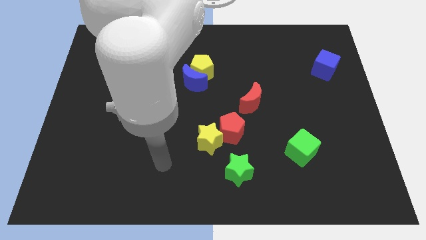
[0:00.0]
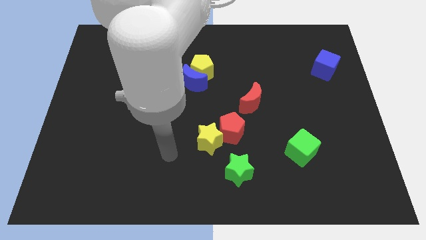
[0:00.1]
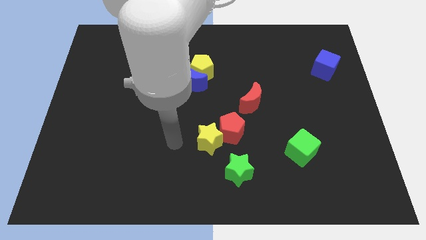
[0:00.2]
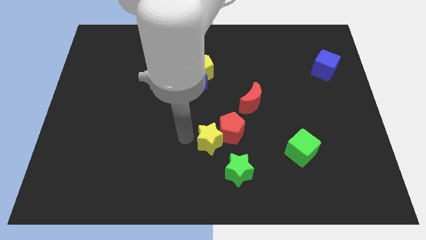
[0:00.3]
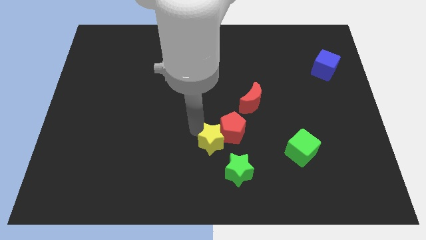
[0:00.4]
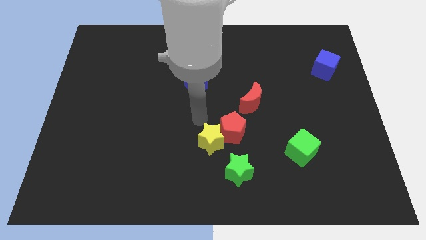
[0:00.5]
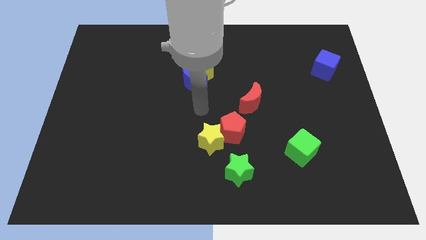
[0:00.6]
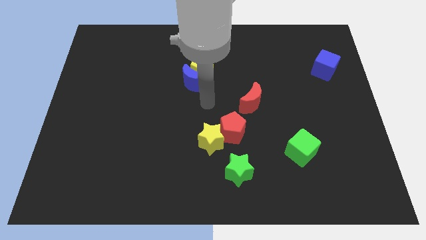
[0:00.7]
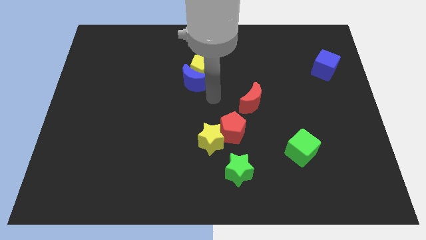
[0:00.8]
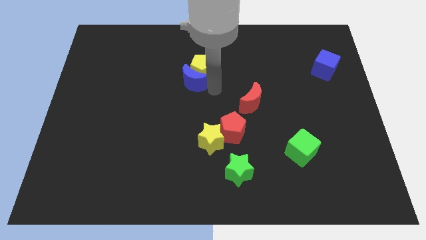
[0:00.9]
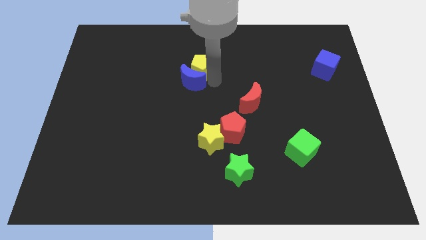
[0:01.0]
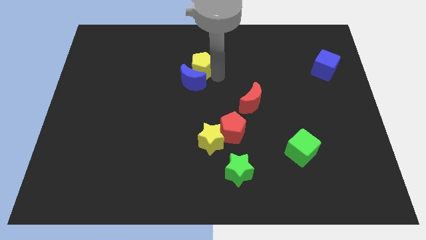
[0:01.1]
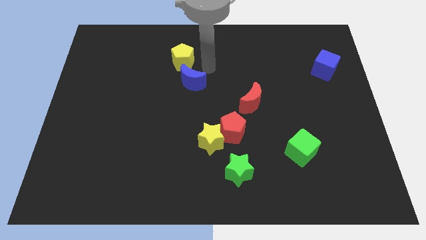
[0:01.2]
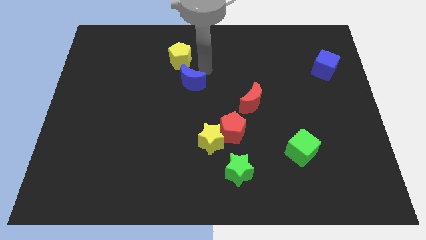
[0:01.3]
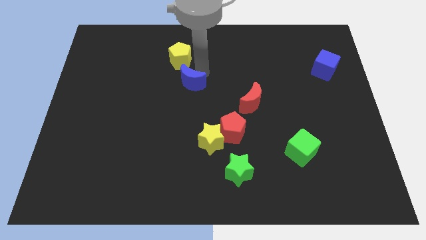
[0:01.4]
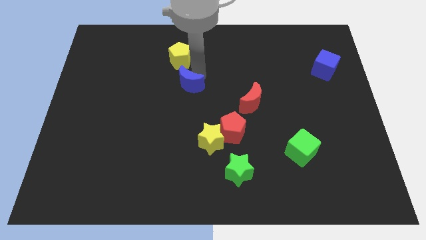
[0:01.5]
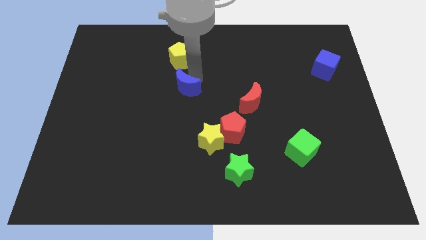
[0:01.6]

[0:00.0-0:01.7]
move the blue moon away from the yellow pentagon

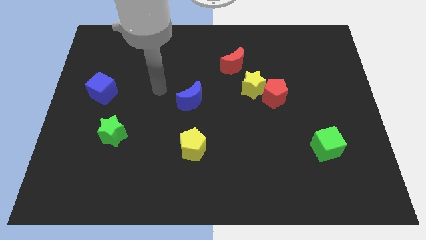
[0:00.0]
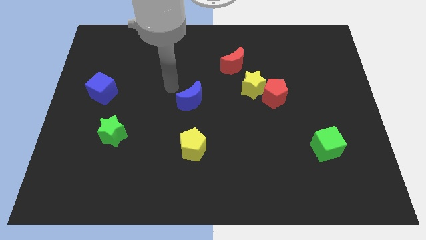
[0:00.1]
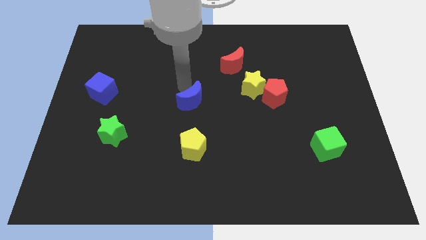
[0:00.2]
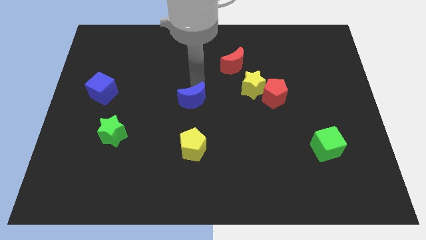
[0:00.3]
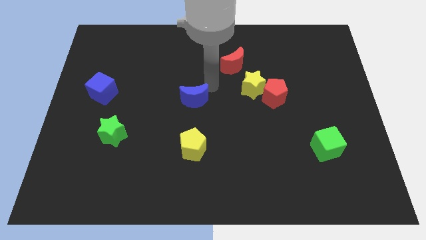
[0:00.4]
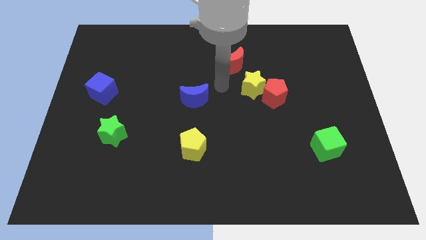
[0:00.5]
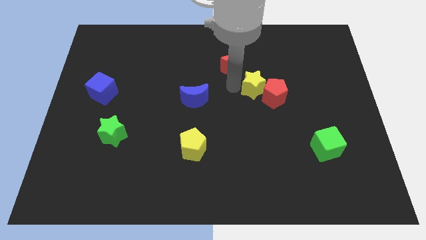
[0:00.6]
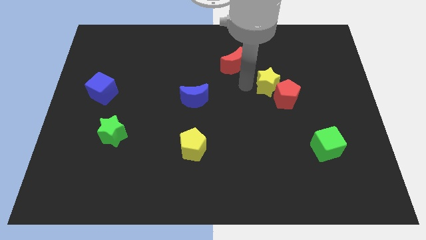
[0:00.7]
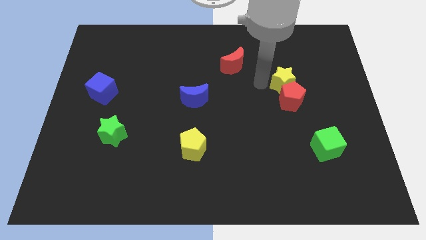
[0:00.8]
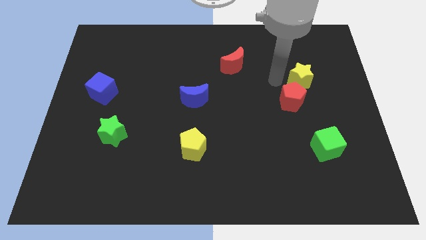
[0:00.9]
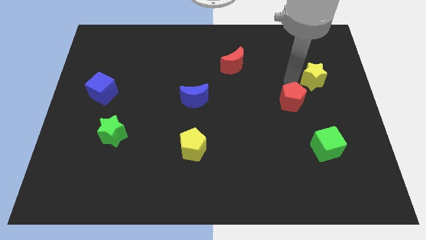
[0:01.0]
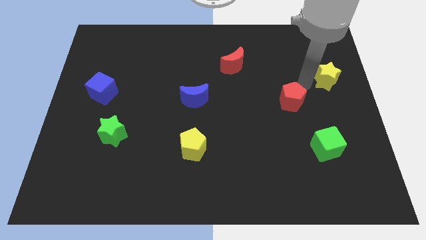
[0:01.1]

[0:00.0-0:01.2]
move the red pentagon away from the yellow star

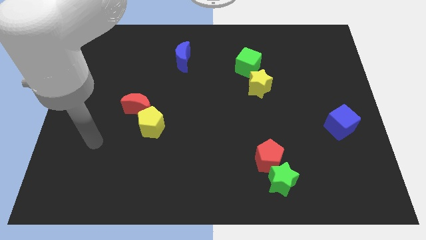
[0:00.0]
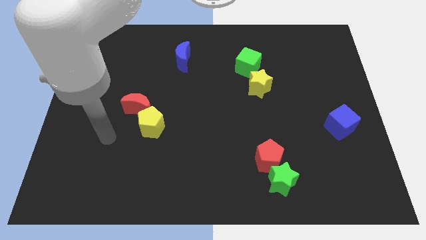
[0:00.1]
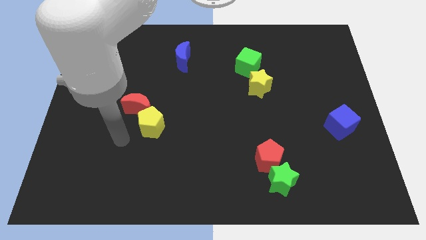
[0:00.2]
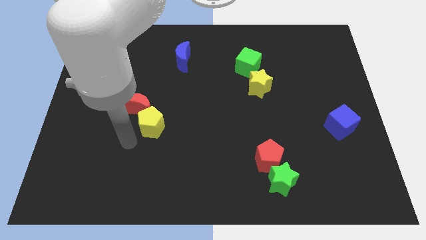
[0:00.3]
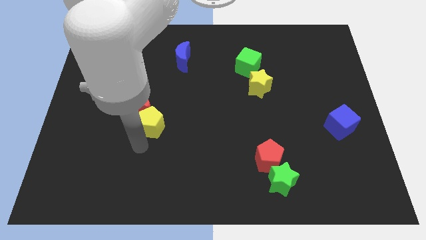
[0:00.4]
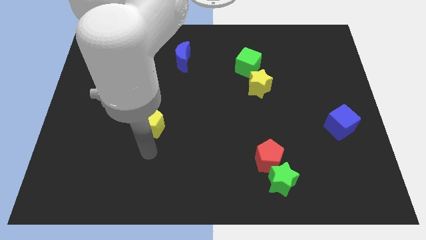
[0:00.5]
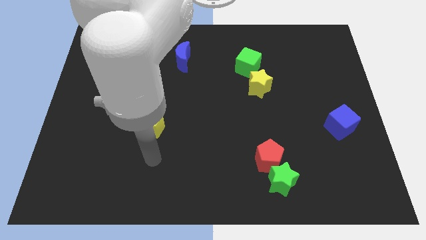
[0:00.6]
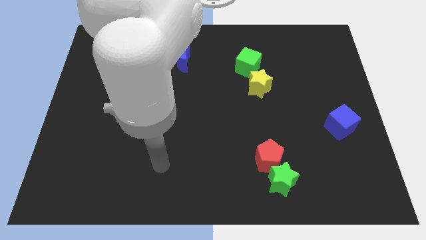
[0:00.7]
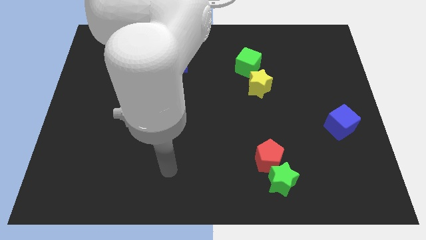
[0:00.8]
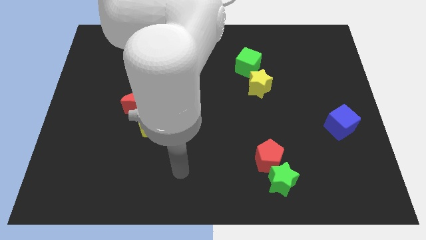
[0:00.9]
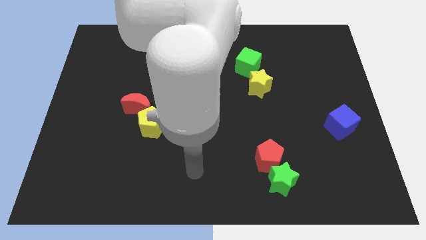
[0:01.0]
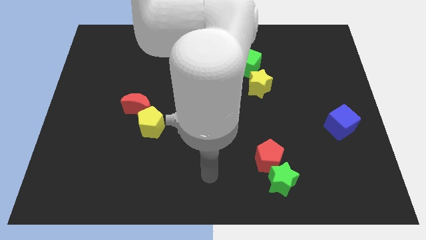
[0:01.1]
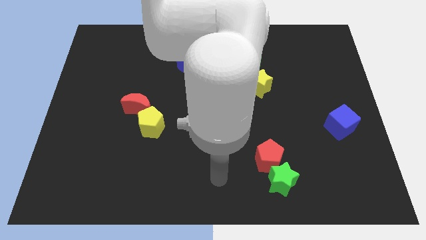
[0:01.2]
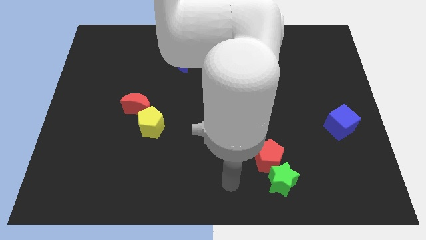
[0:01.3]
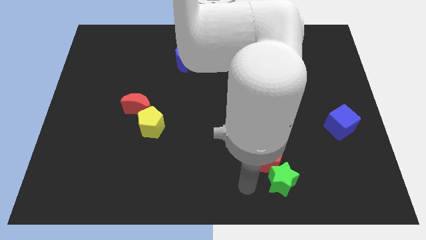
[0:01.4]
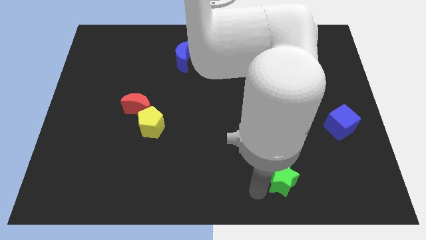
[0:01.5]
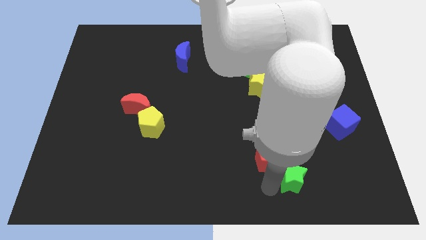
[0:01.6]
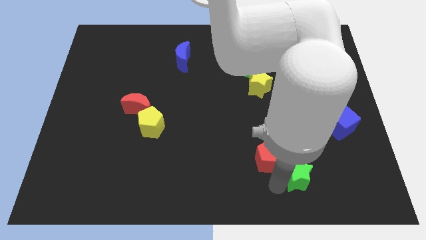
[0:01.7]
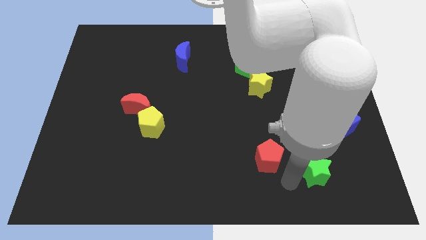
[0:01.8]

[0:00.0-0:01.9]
move the red pentagon away from the green star

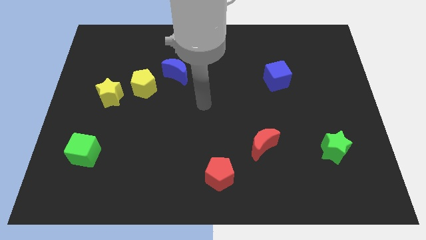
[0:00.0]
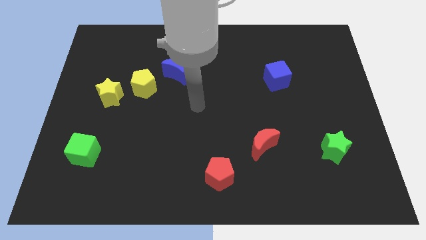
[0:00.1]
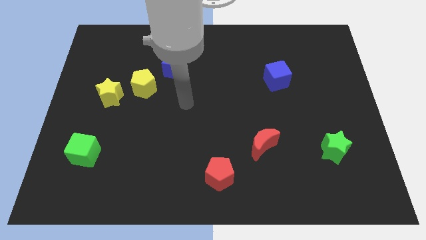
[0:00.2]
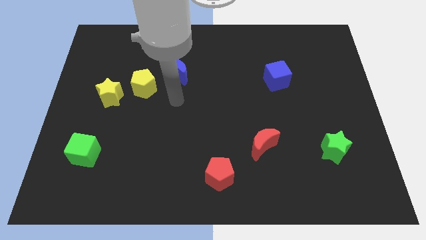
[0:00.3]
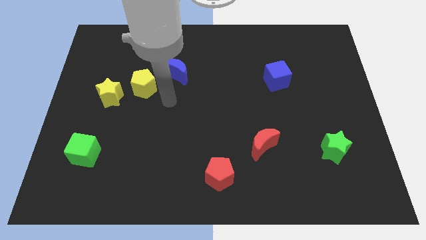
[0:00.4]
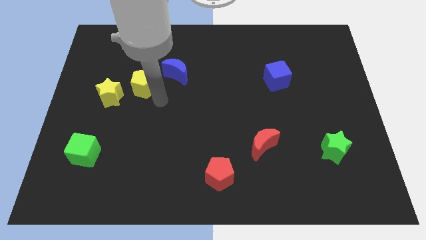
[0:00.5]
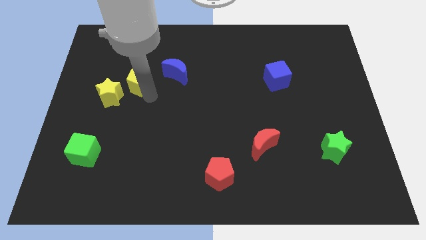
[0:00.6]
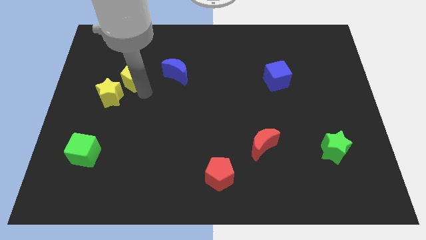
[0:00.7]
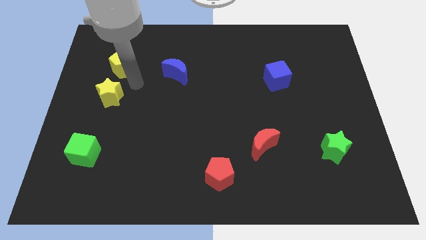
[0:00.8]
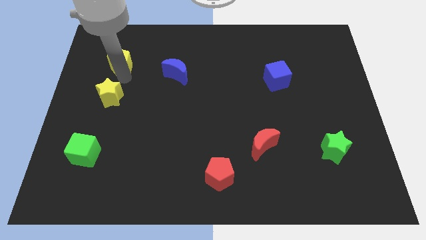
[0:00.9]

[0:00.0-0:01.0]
move the yellow star away from the yellow pentagon

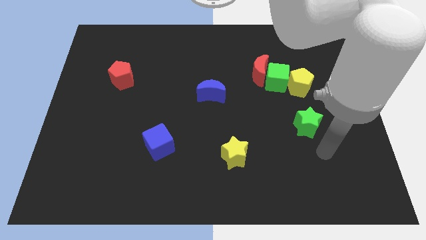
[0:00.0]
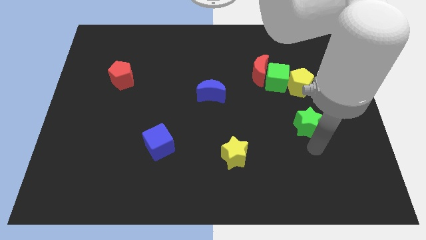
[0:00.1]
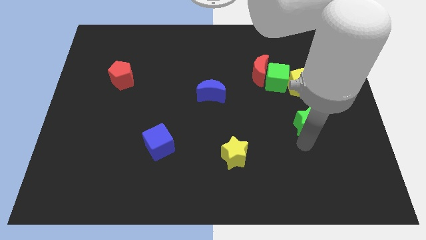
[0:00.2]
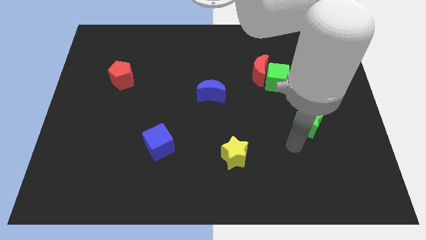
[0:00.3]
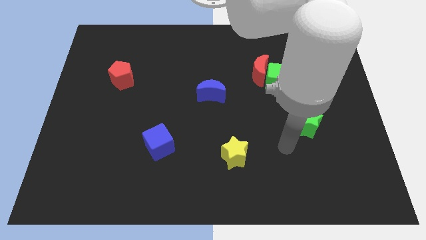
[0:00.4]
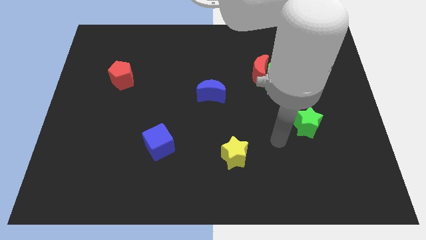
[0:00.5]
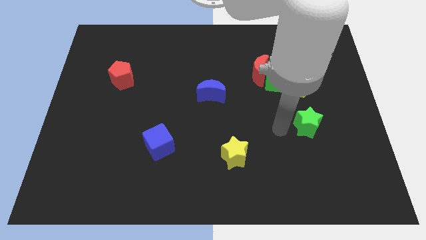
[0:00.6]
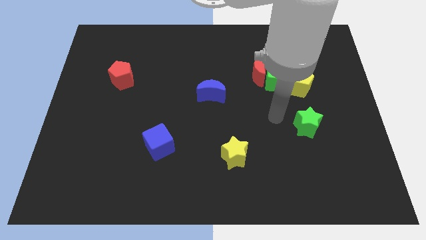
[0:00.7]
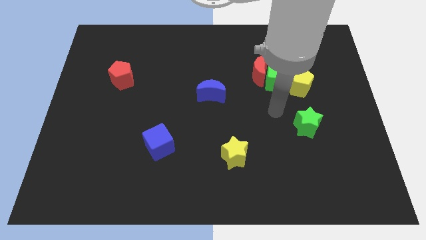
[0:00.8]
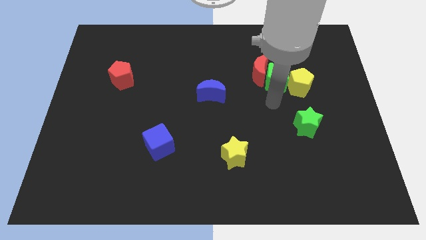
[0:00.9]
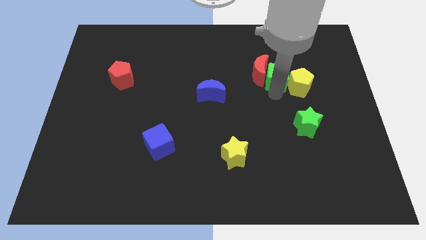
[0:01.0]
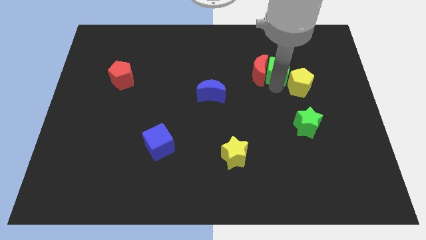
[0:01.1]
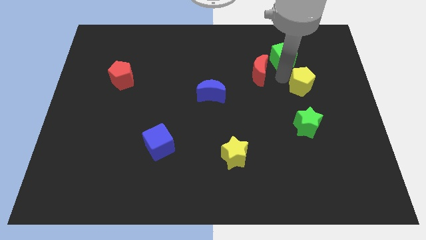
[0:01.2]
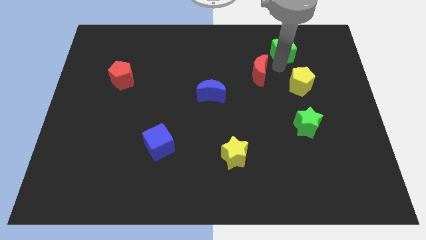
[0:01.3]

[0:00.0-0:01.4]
pull the red moon apart from the green cube

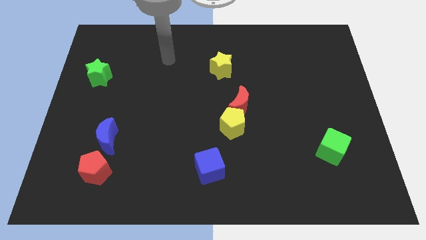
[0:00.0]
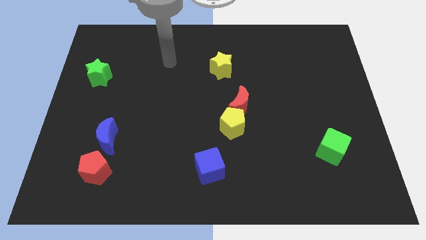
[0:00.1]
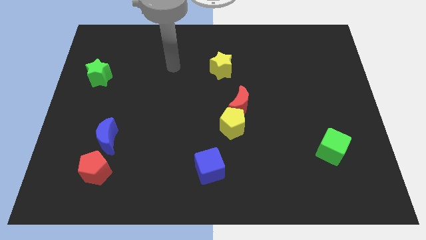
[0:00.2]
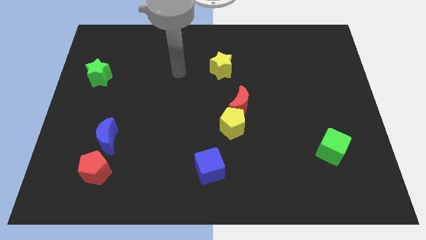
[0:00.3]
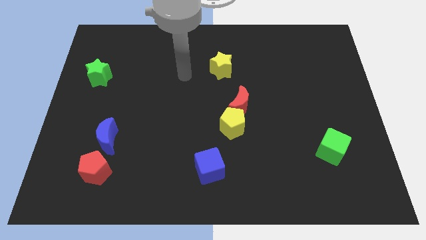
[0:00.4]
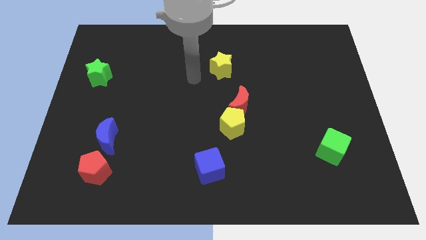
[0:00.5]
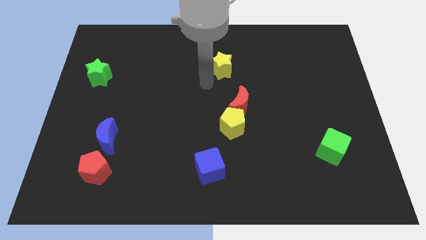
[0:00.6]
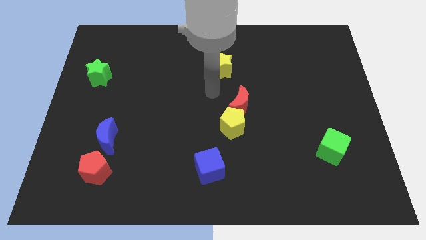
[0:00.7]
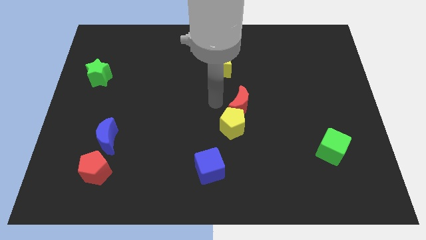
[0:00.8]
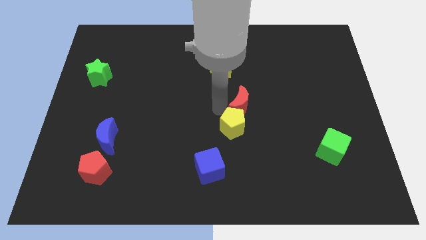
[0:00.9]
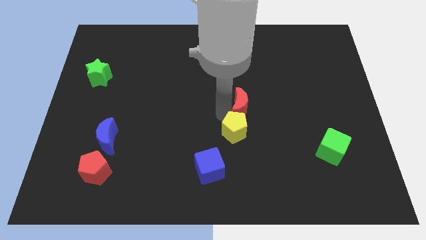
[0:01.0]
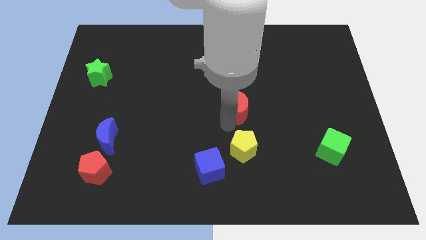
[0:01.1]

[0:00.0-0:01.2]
move the red moon away from the yellow pentagon

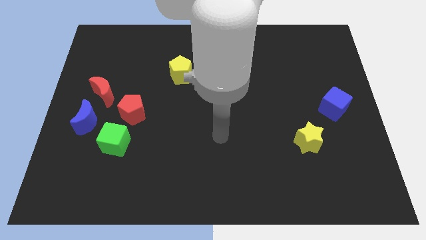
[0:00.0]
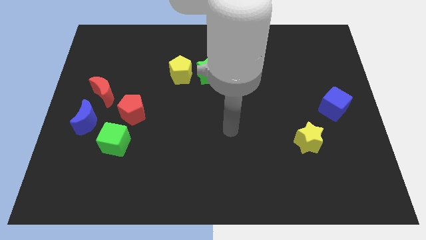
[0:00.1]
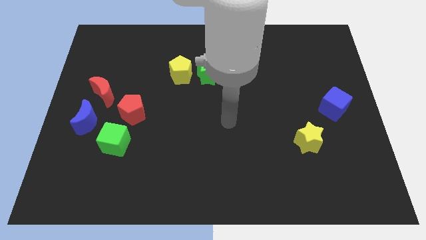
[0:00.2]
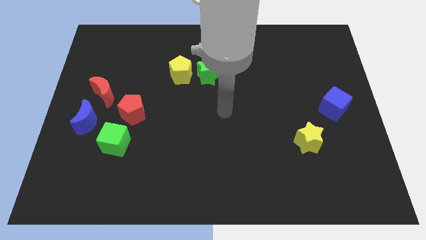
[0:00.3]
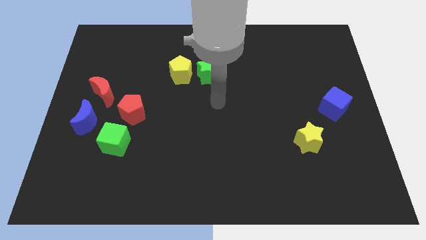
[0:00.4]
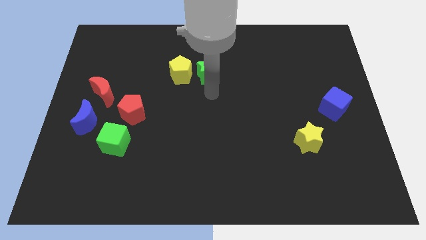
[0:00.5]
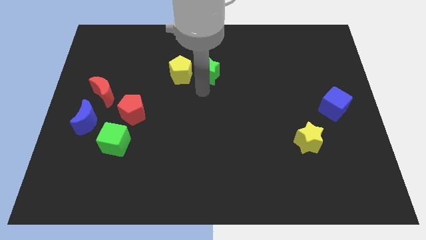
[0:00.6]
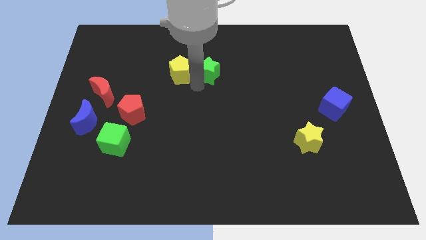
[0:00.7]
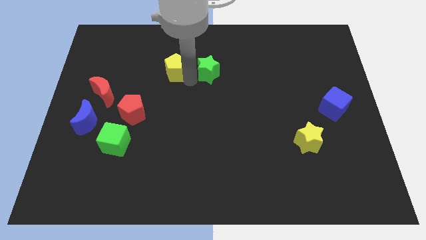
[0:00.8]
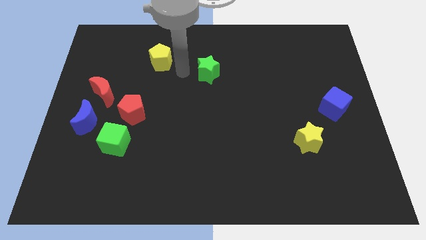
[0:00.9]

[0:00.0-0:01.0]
pull the green star apart from the yellow pentagon
